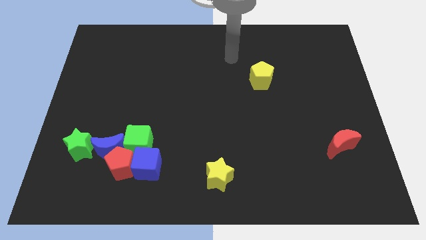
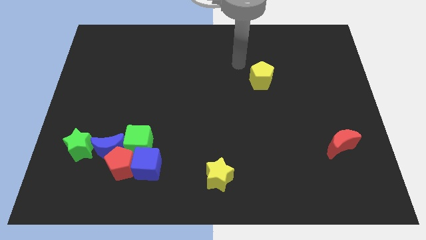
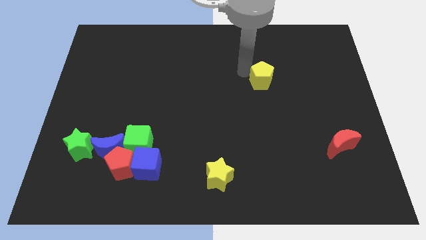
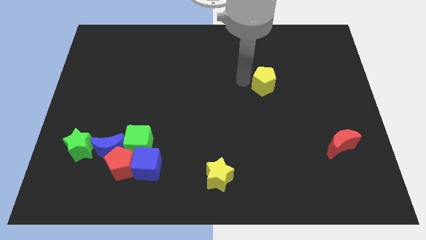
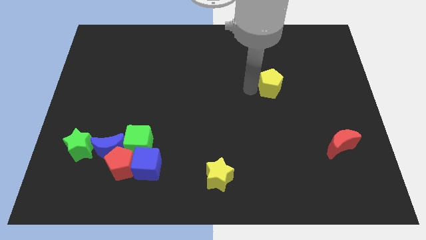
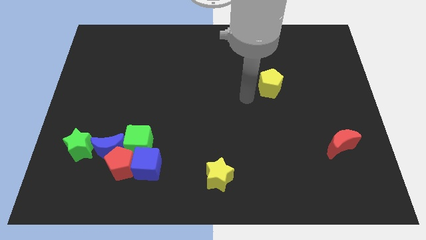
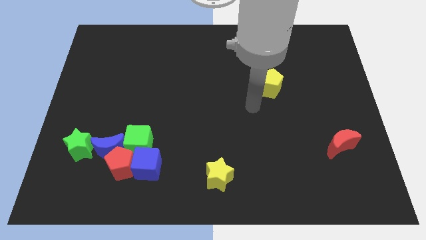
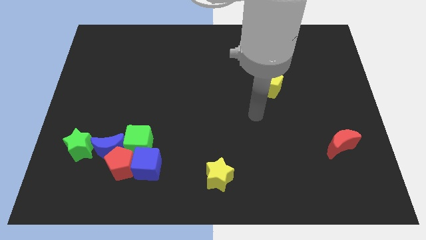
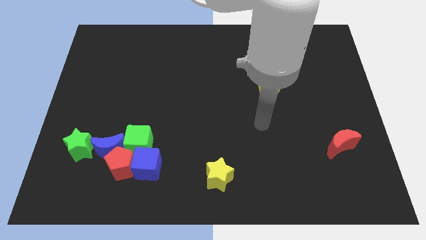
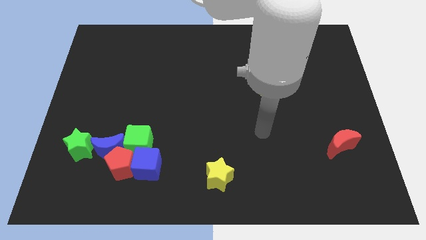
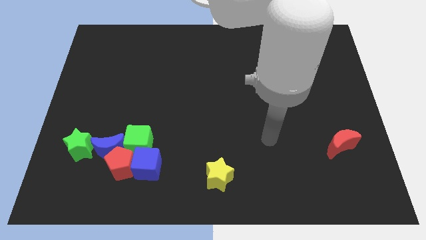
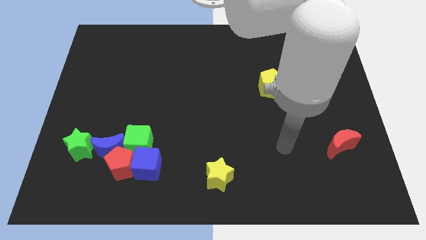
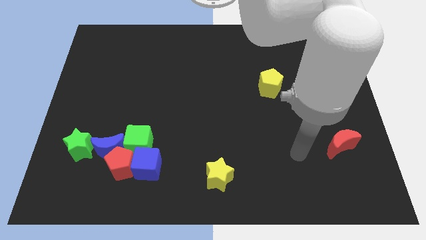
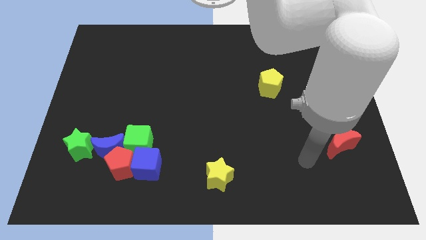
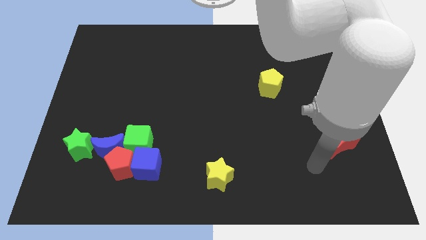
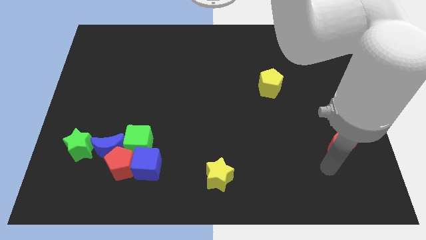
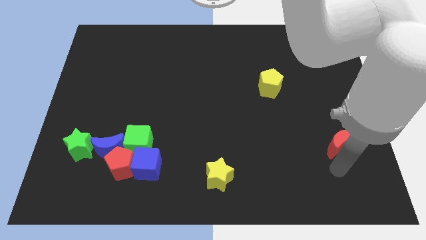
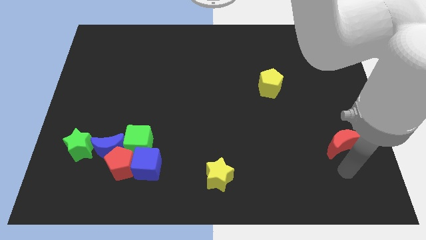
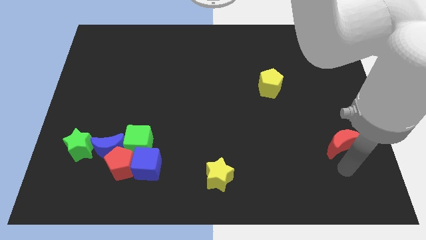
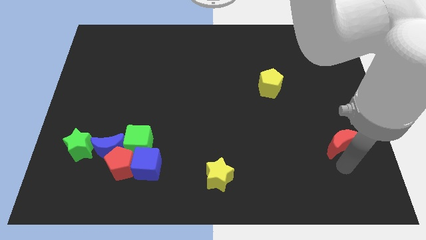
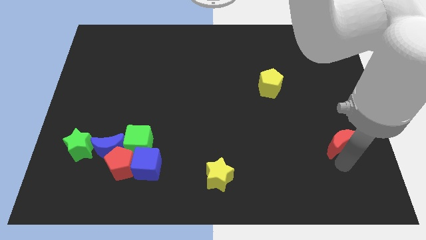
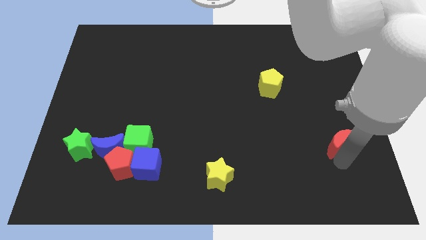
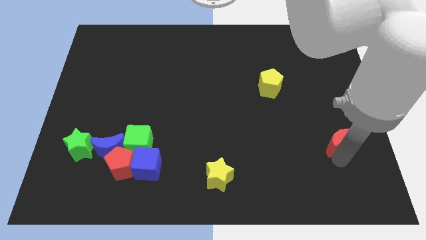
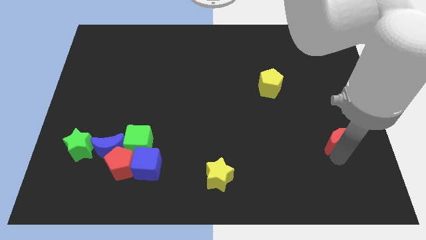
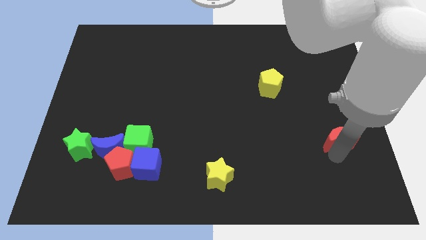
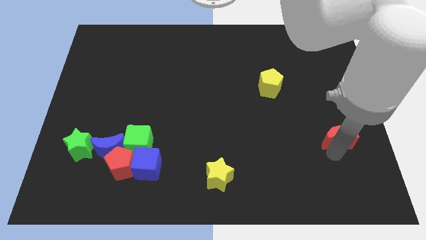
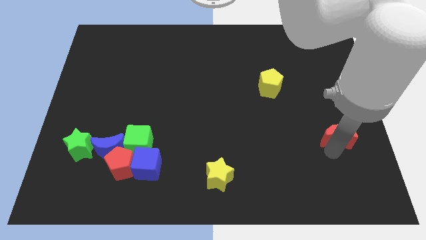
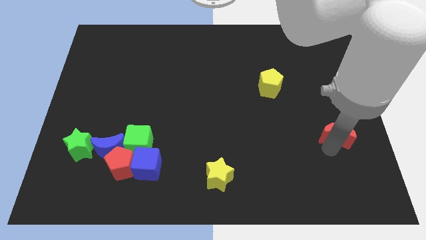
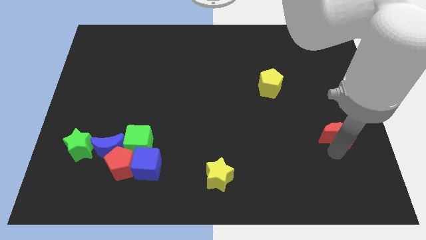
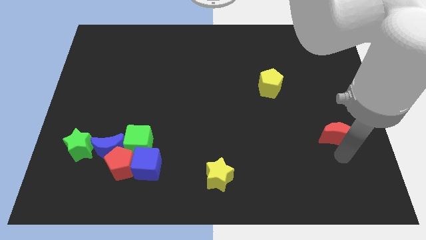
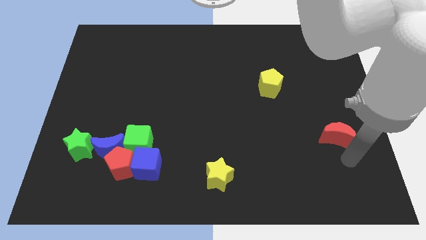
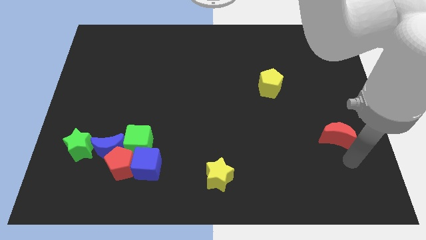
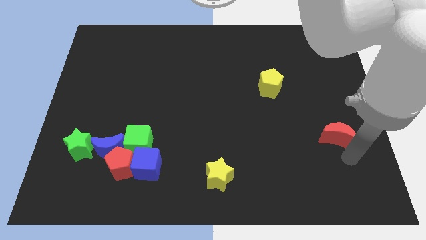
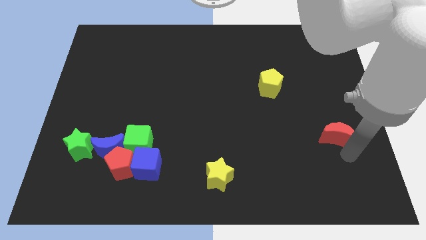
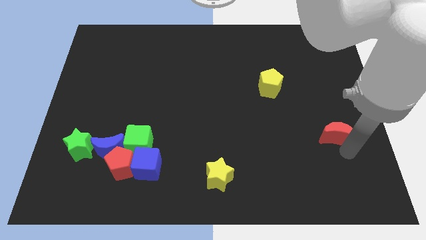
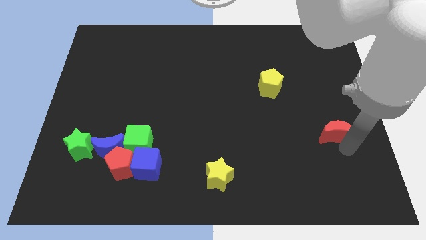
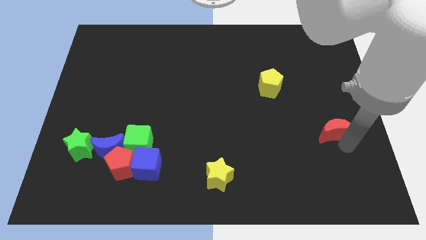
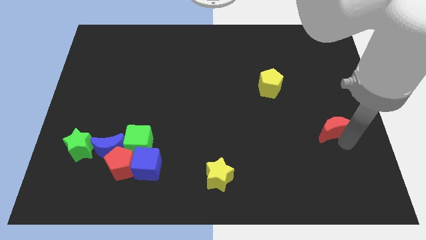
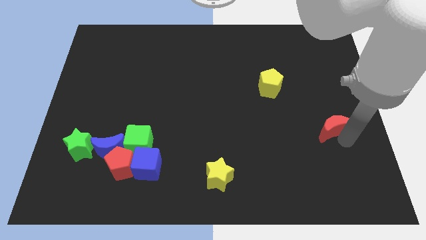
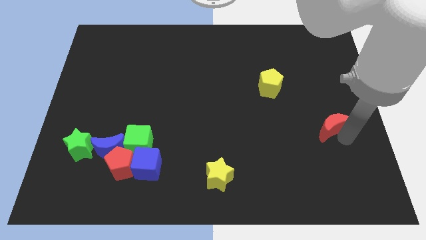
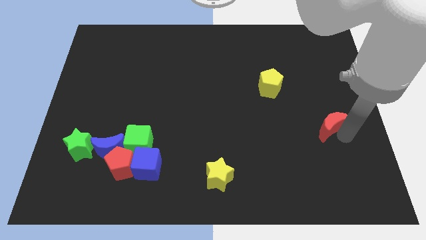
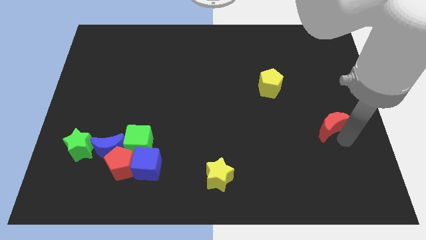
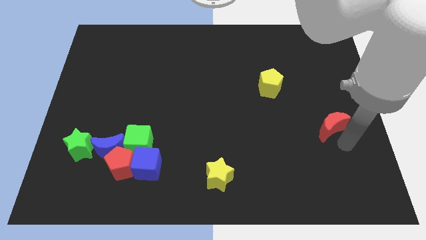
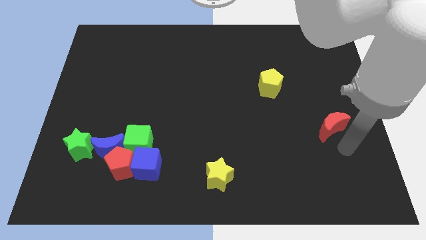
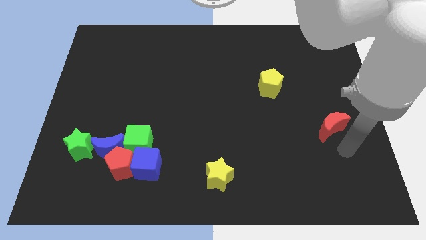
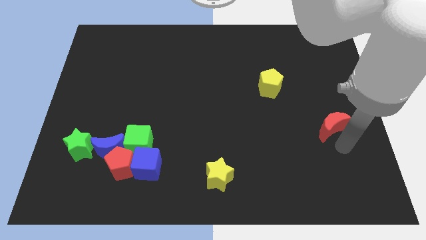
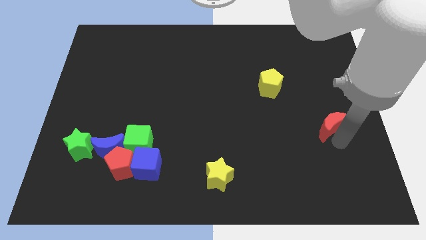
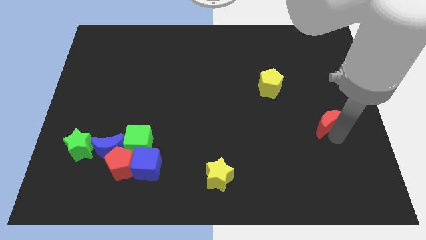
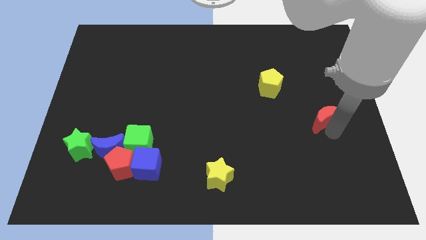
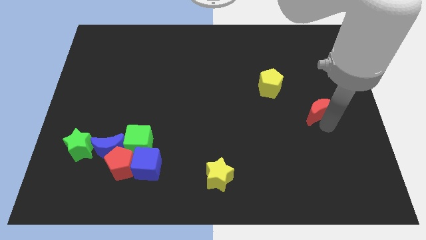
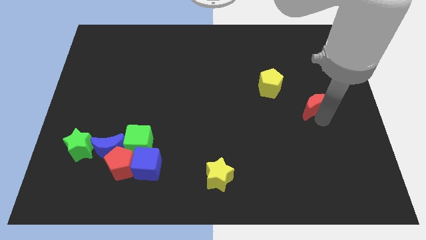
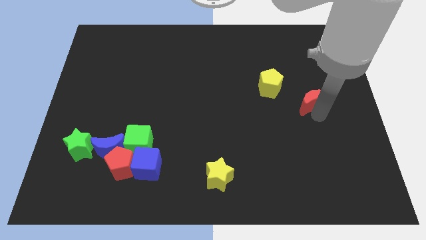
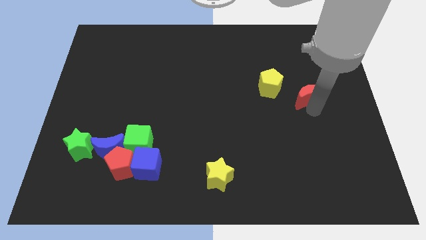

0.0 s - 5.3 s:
move the red moon just right of the yellow pentagon

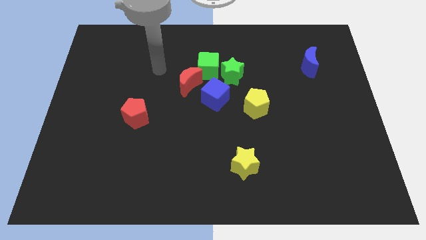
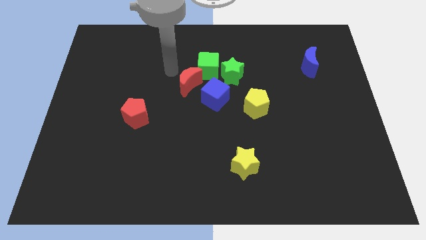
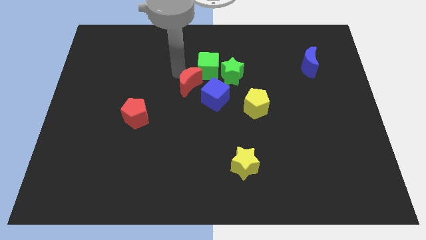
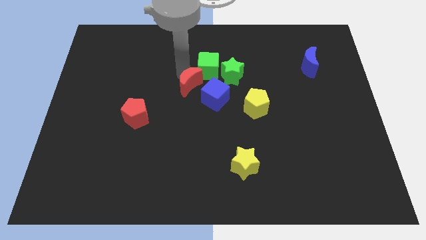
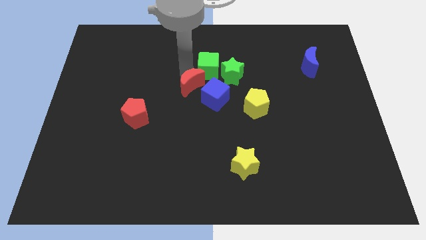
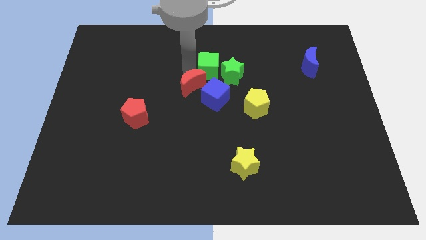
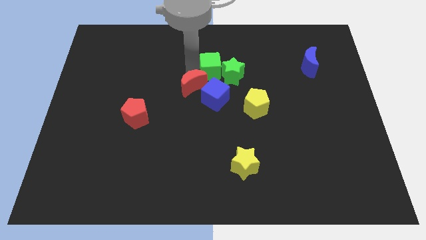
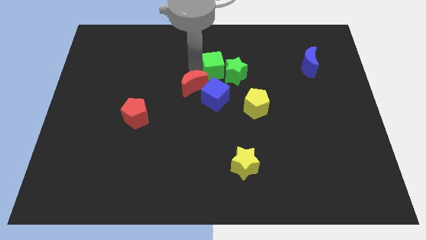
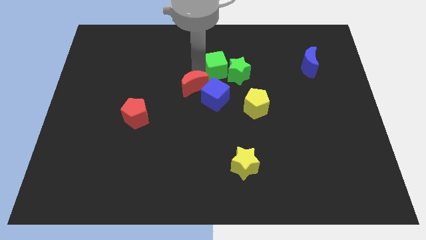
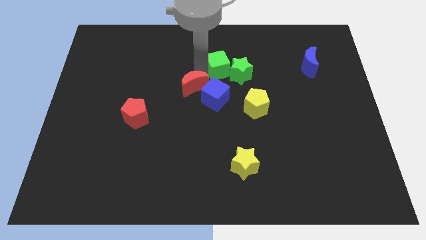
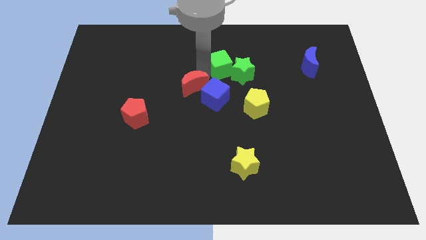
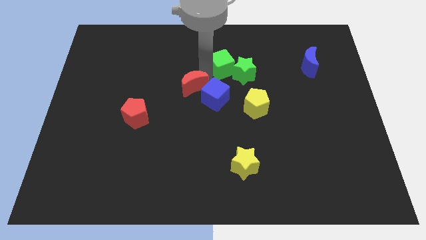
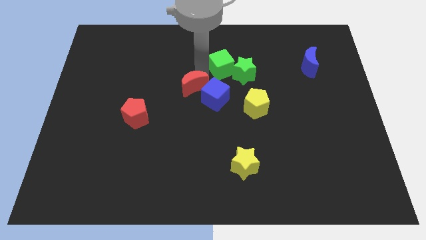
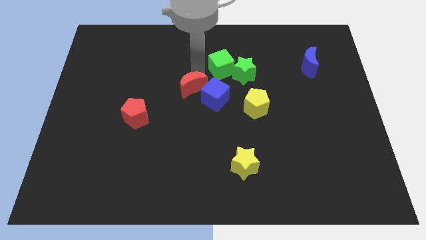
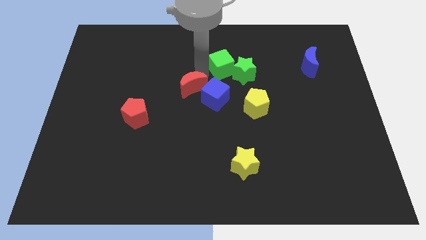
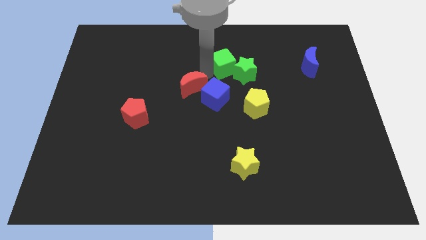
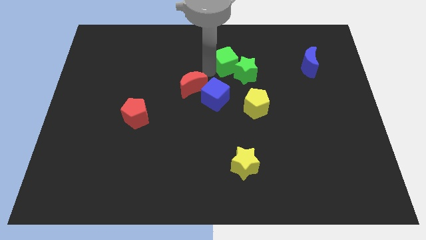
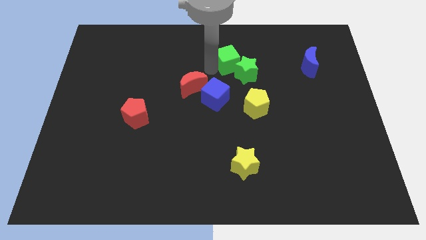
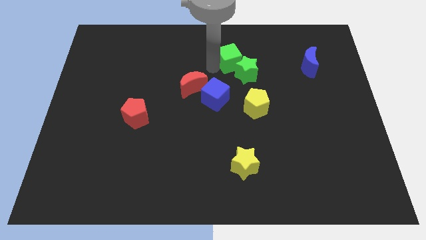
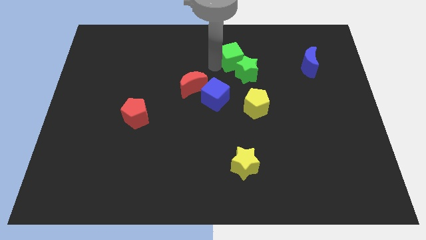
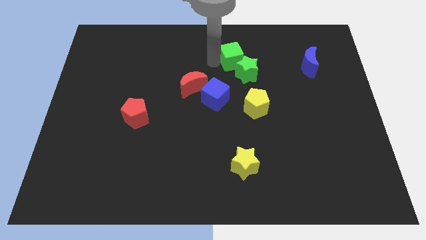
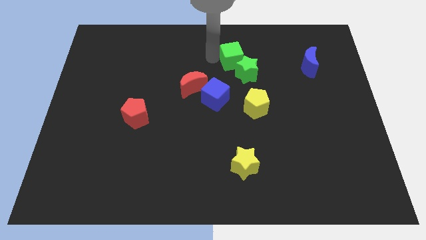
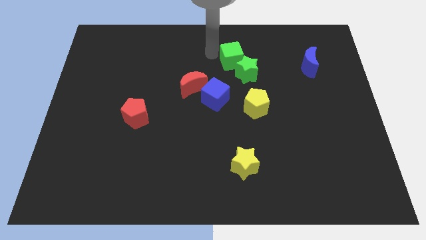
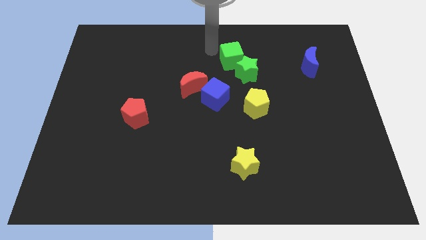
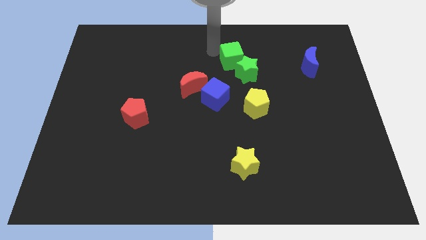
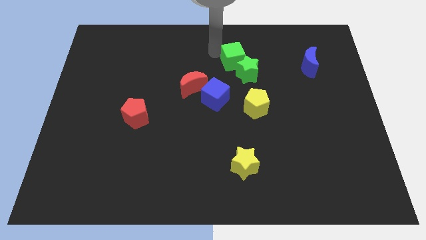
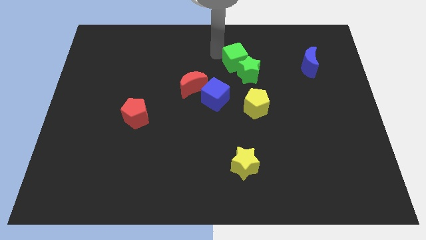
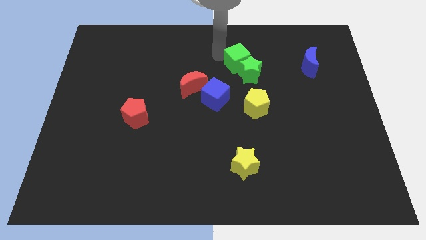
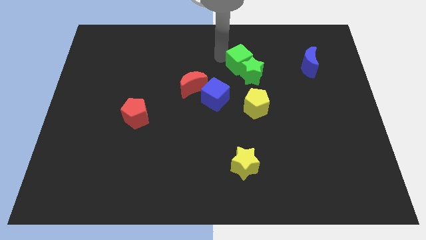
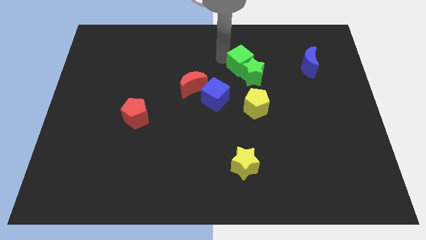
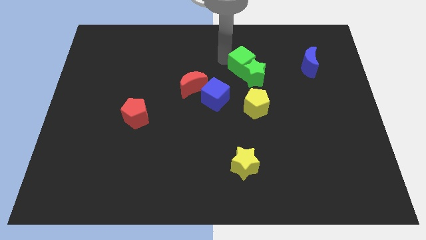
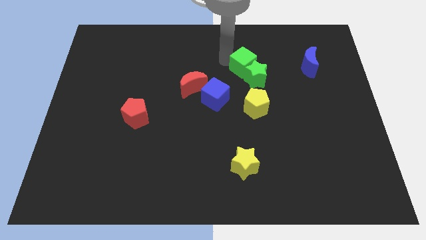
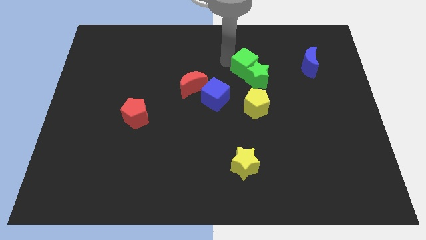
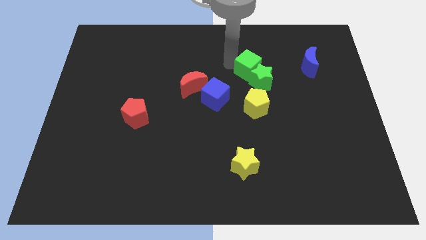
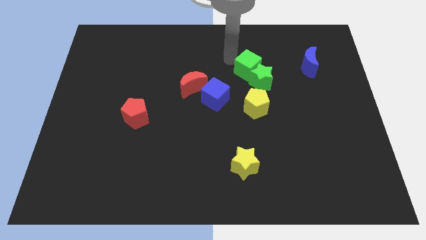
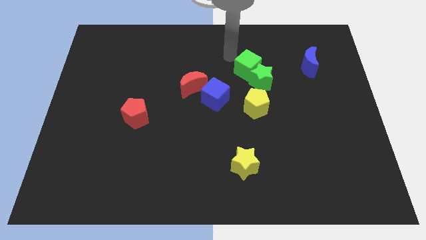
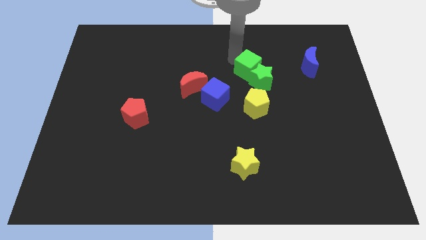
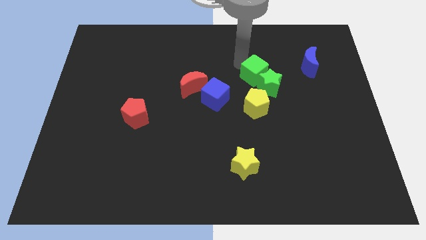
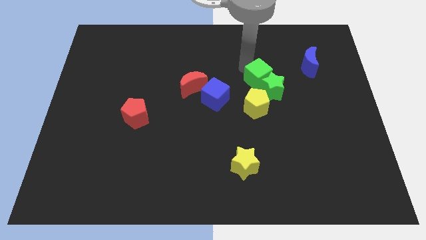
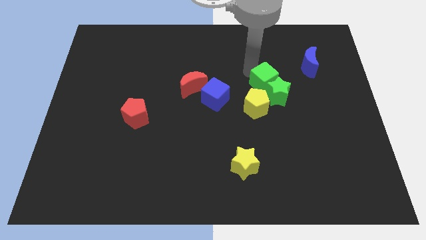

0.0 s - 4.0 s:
put the green cube to the top right of the yellow pentagon
